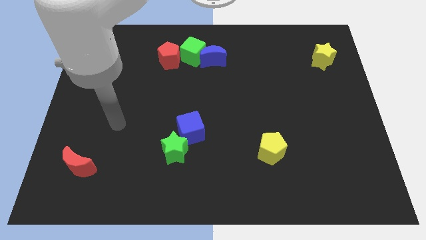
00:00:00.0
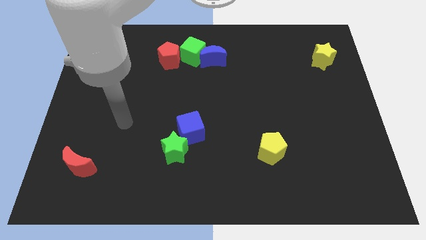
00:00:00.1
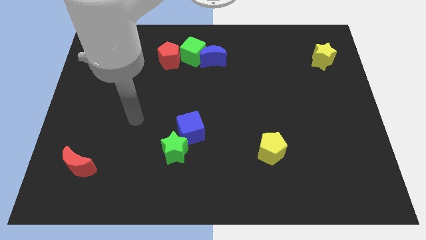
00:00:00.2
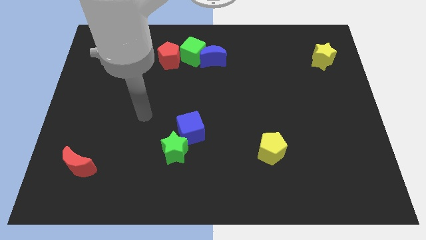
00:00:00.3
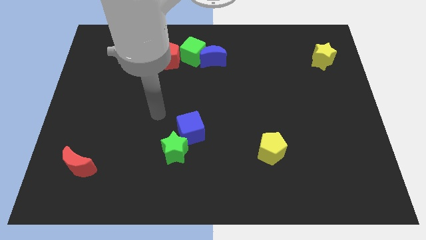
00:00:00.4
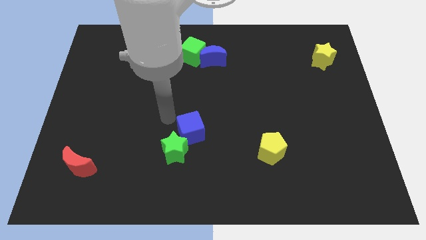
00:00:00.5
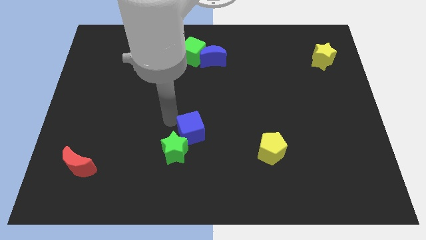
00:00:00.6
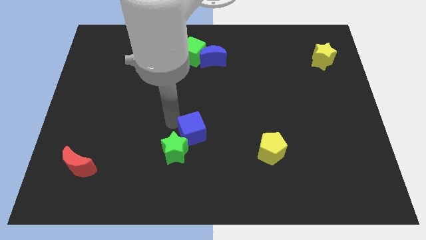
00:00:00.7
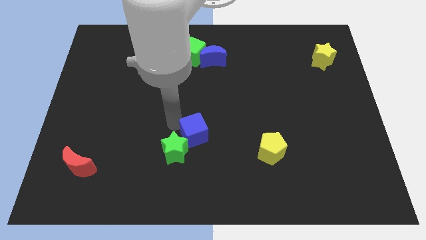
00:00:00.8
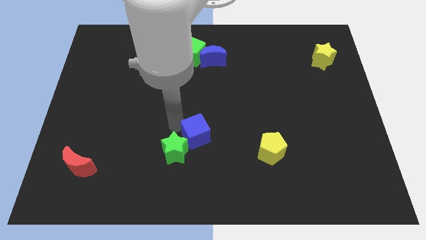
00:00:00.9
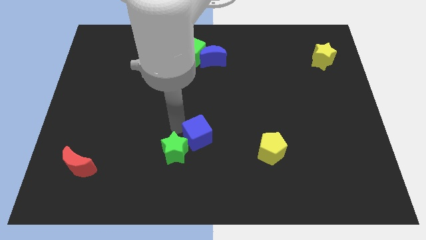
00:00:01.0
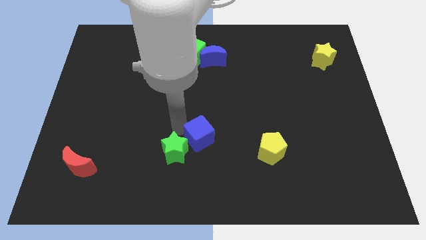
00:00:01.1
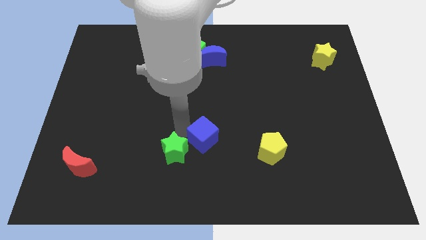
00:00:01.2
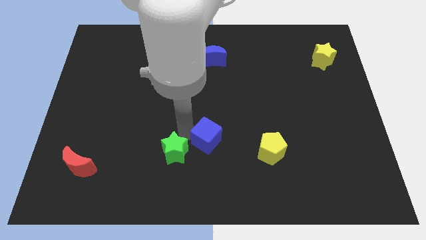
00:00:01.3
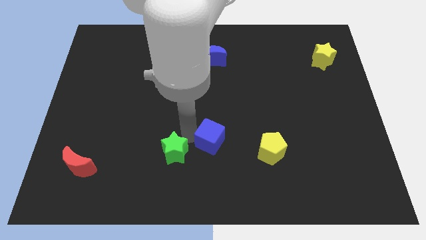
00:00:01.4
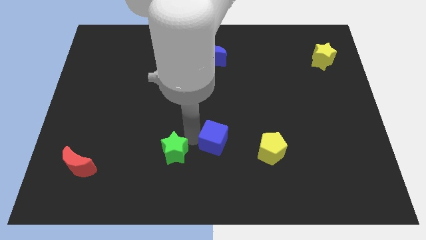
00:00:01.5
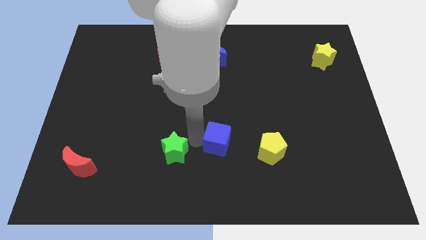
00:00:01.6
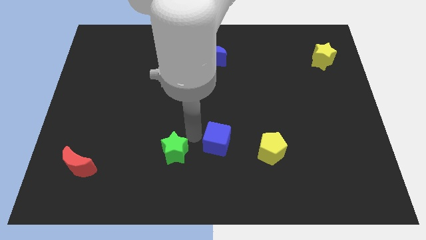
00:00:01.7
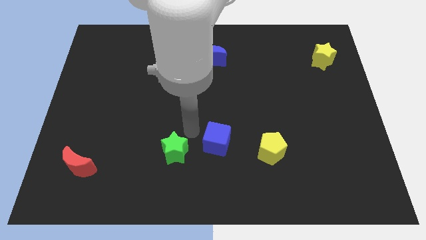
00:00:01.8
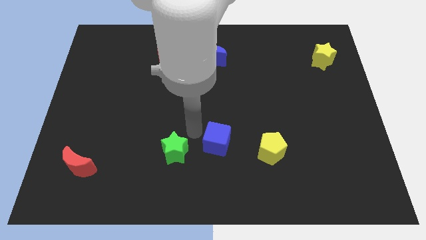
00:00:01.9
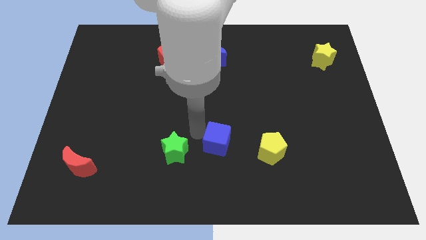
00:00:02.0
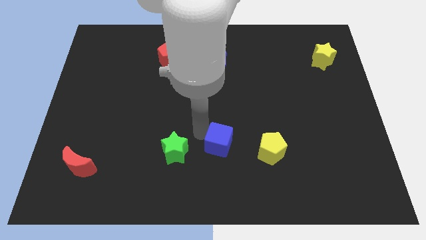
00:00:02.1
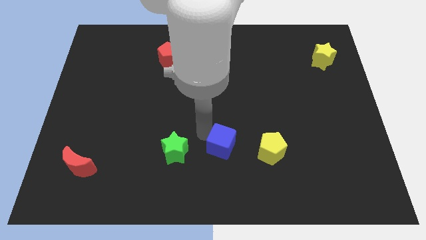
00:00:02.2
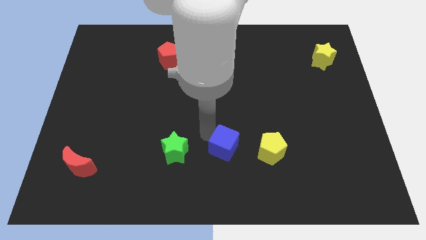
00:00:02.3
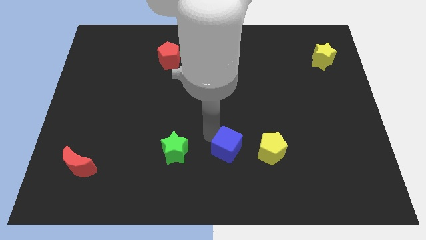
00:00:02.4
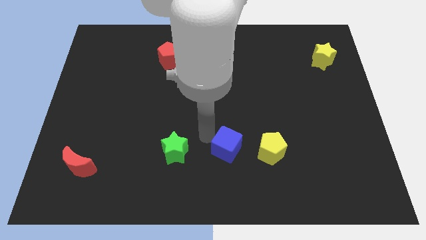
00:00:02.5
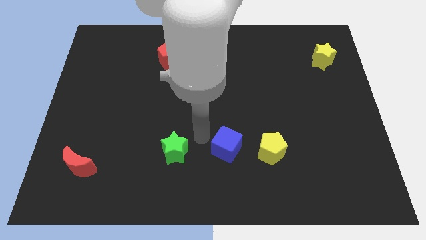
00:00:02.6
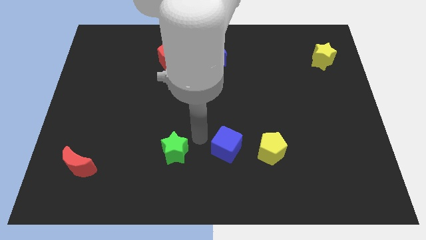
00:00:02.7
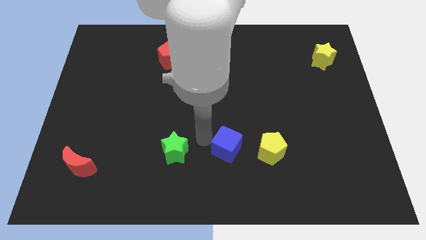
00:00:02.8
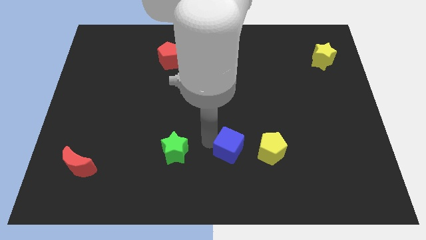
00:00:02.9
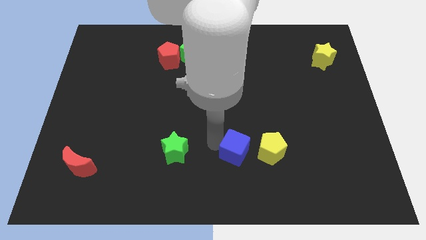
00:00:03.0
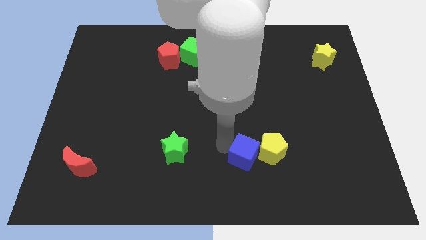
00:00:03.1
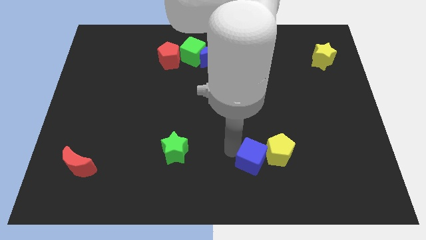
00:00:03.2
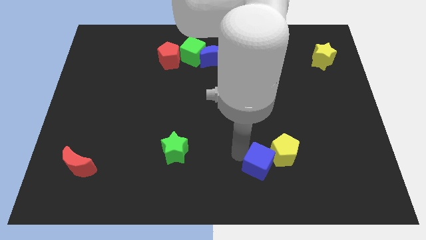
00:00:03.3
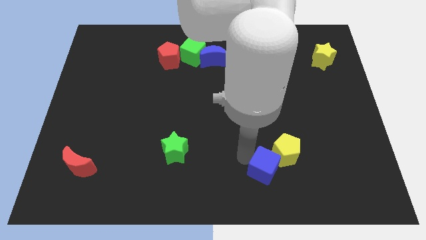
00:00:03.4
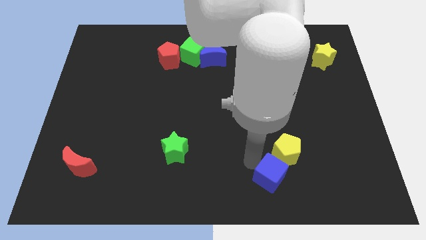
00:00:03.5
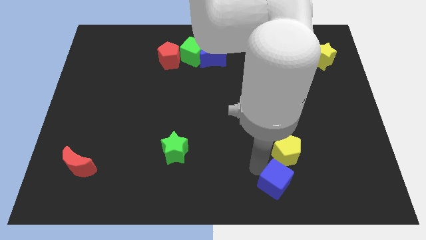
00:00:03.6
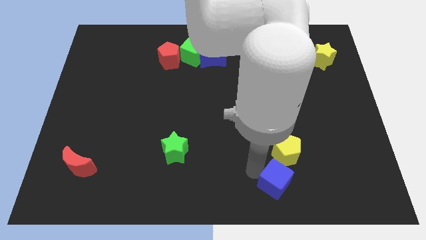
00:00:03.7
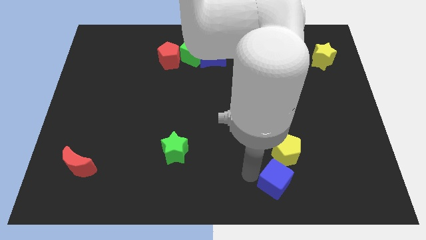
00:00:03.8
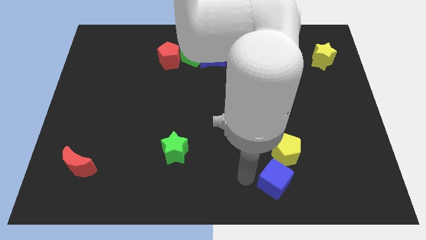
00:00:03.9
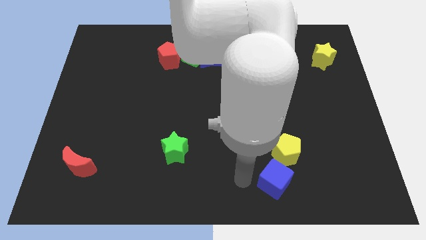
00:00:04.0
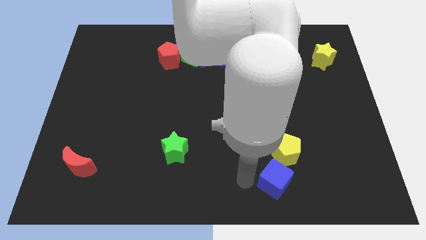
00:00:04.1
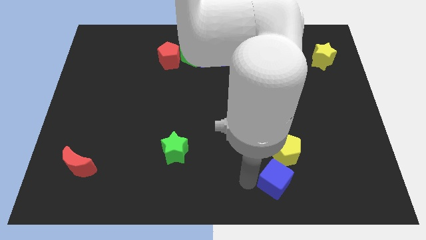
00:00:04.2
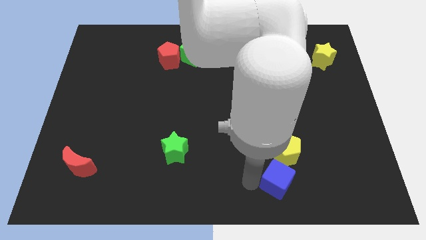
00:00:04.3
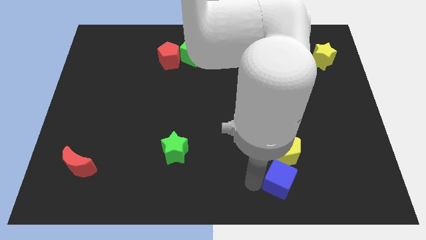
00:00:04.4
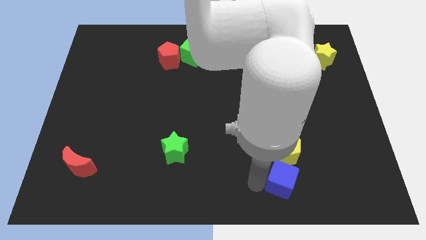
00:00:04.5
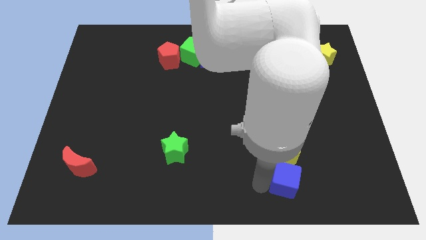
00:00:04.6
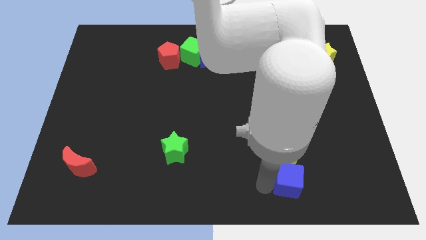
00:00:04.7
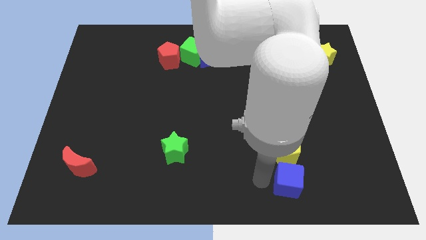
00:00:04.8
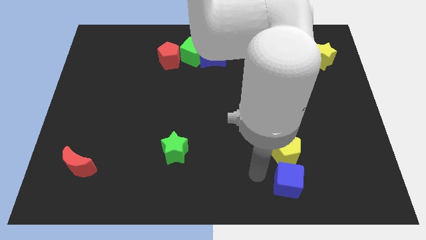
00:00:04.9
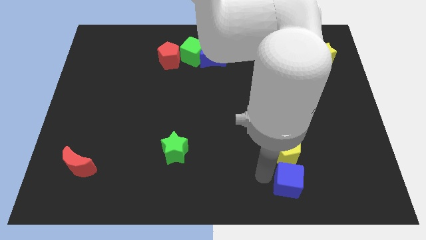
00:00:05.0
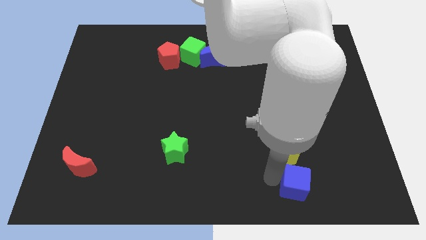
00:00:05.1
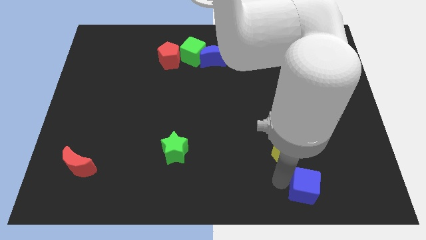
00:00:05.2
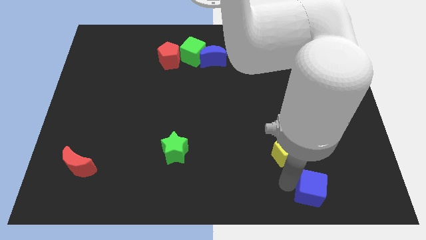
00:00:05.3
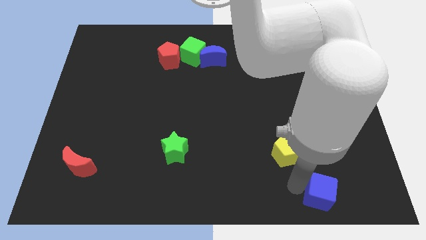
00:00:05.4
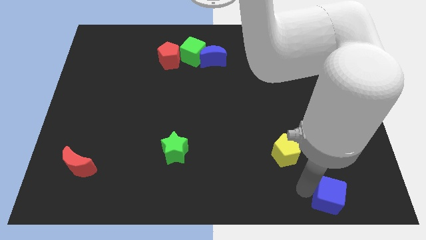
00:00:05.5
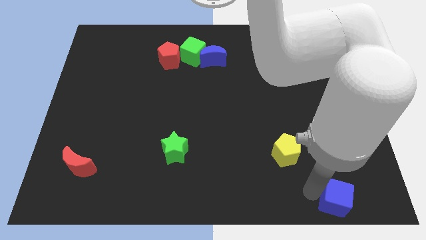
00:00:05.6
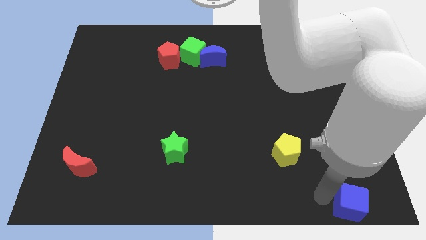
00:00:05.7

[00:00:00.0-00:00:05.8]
slide the blue cube to the bottom right of the board
